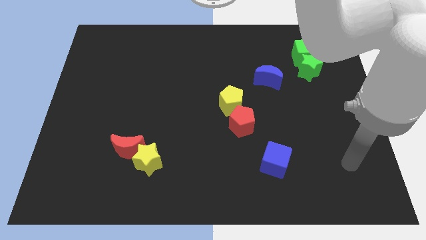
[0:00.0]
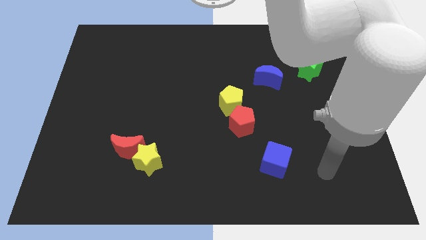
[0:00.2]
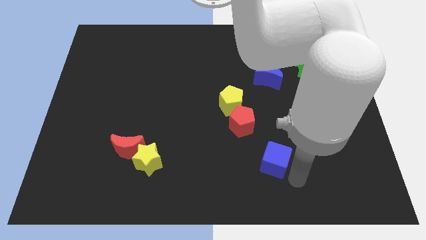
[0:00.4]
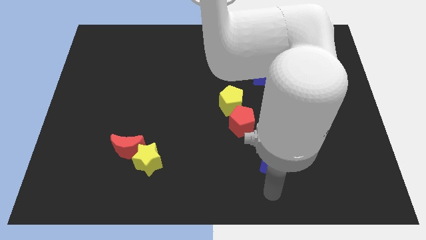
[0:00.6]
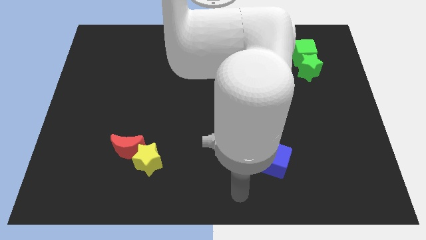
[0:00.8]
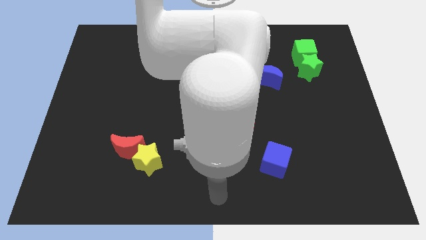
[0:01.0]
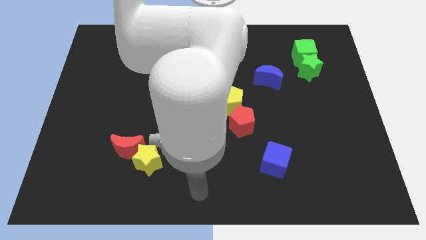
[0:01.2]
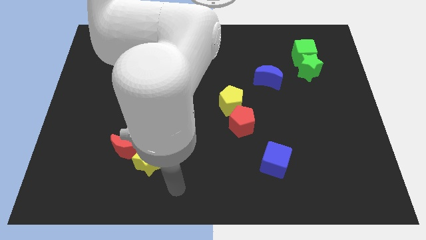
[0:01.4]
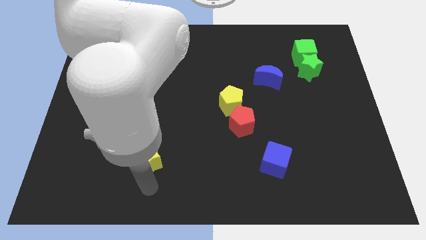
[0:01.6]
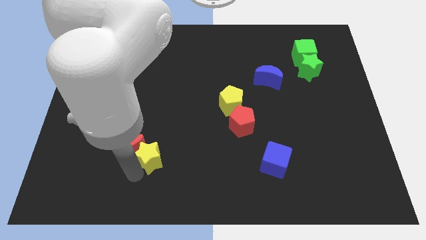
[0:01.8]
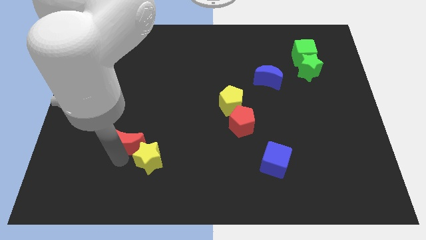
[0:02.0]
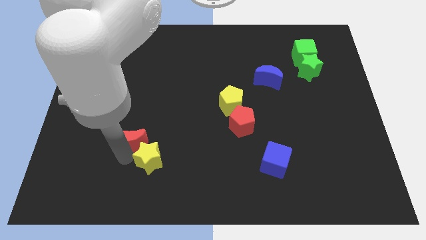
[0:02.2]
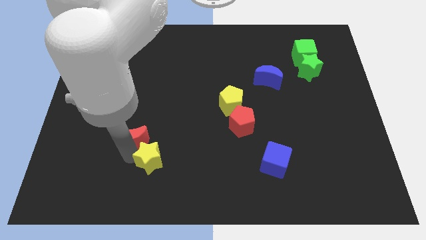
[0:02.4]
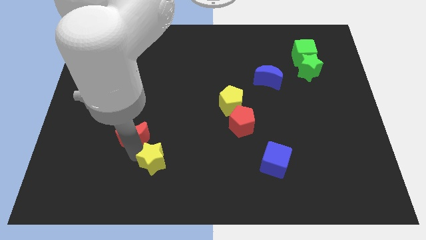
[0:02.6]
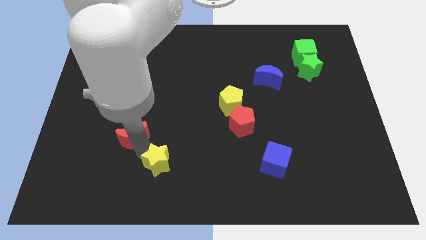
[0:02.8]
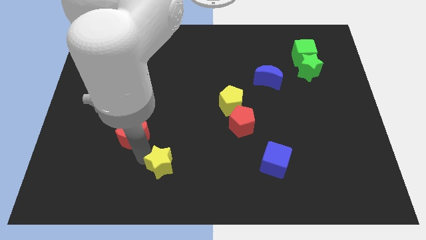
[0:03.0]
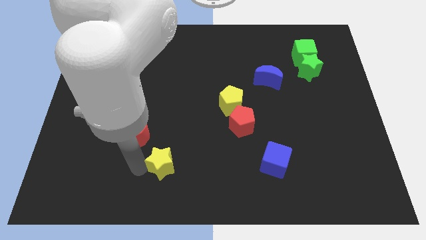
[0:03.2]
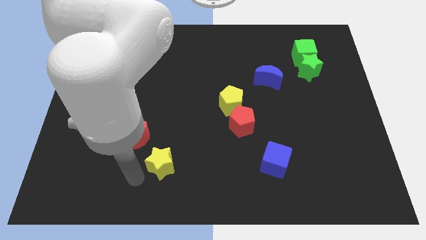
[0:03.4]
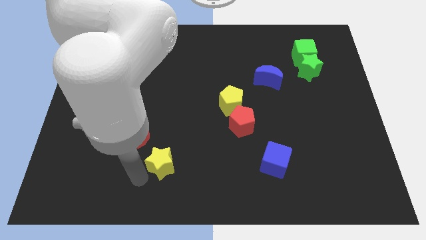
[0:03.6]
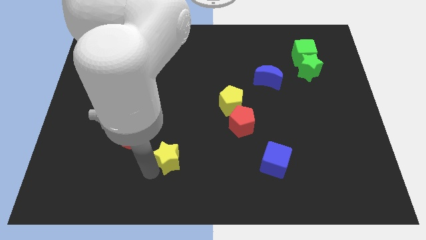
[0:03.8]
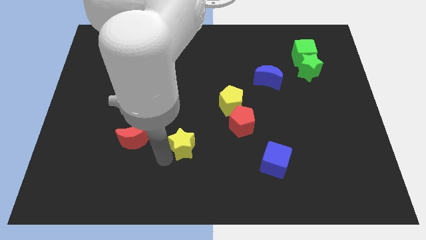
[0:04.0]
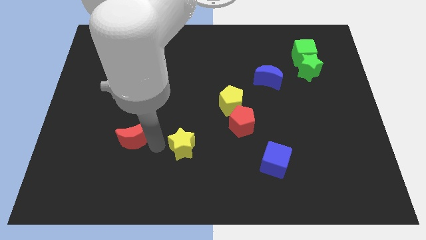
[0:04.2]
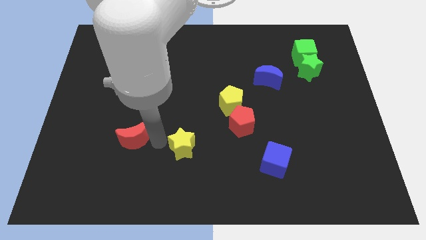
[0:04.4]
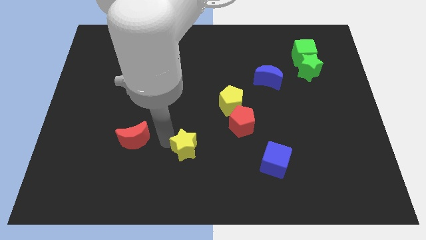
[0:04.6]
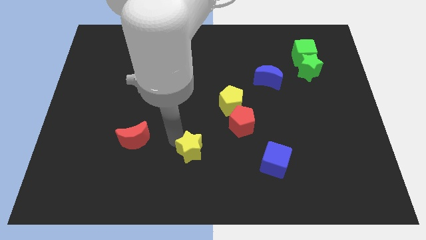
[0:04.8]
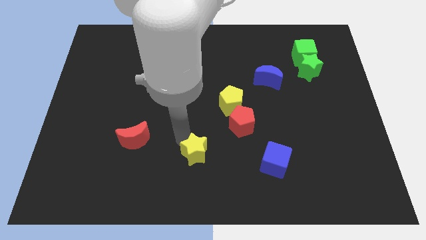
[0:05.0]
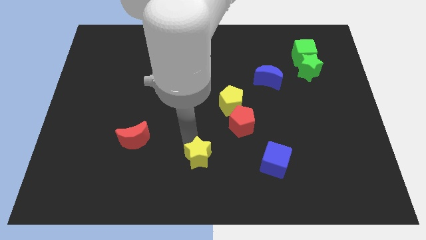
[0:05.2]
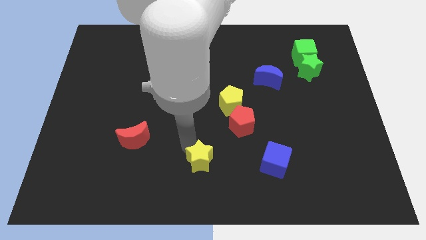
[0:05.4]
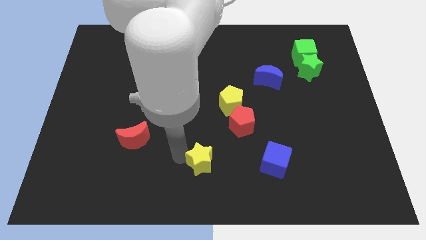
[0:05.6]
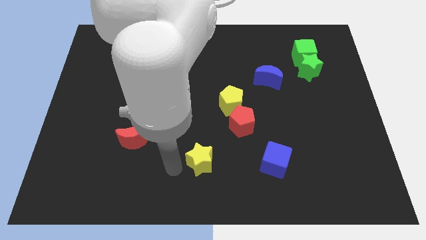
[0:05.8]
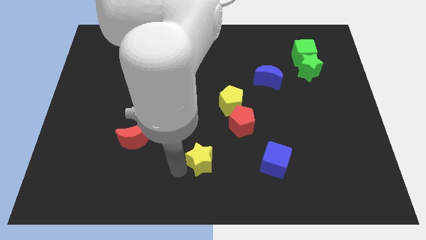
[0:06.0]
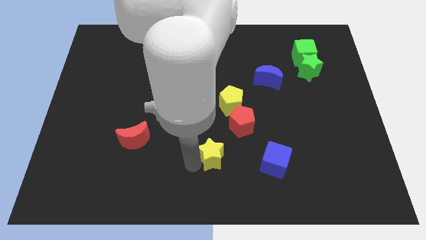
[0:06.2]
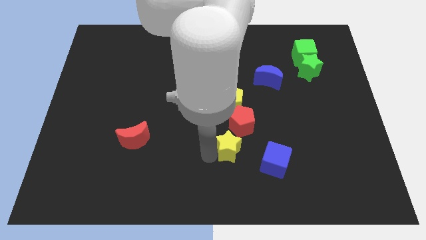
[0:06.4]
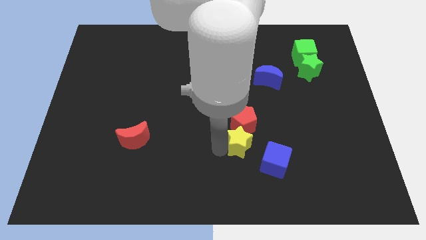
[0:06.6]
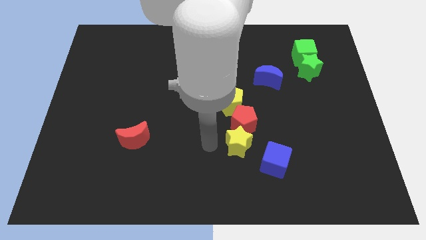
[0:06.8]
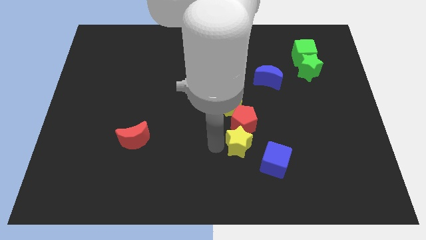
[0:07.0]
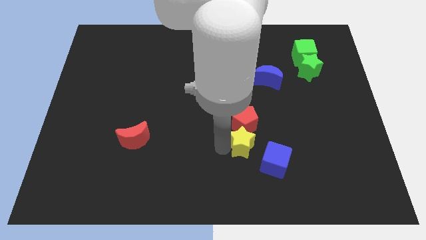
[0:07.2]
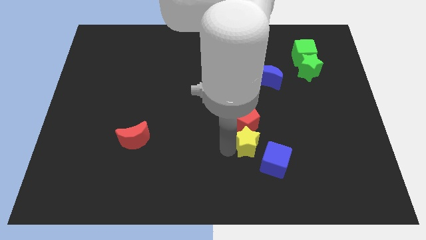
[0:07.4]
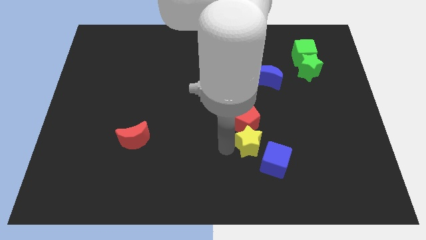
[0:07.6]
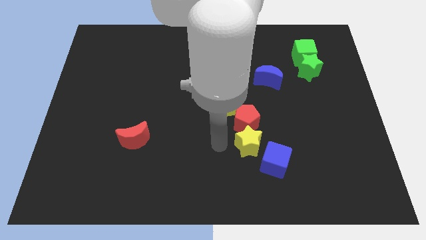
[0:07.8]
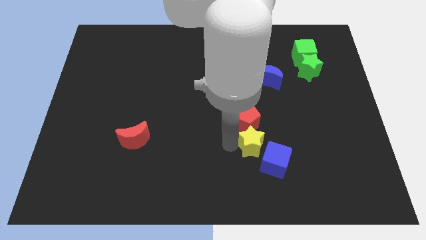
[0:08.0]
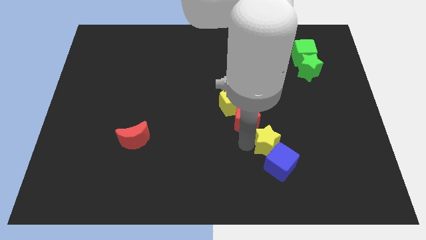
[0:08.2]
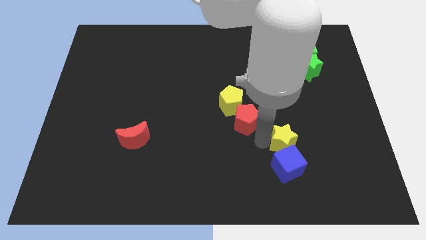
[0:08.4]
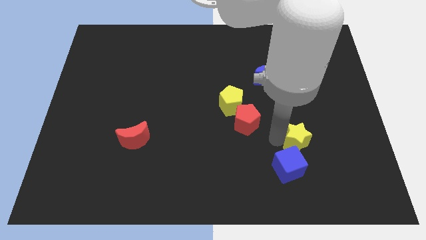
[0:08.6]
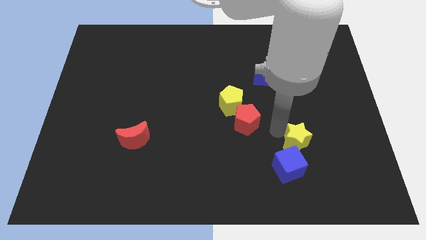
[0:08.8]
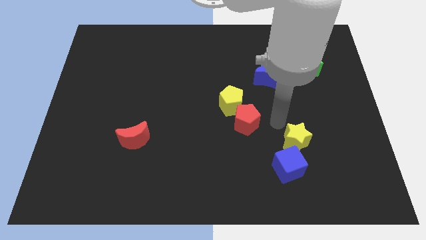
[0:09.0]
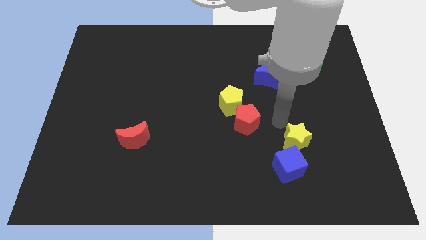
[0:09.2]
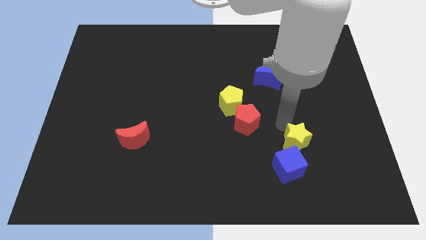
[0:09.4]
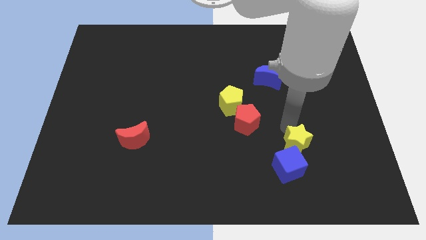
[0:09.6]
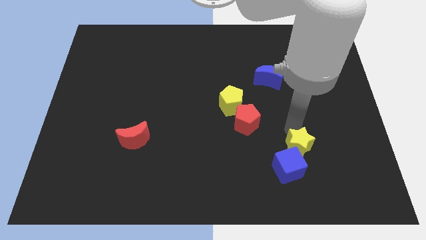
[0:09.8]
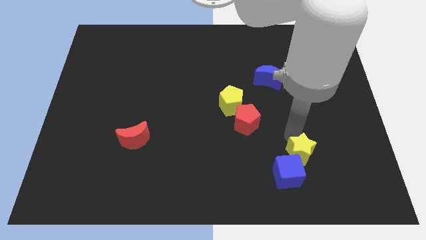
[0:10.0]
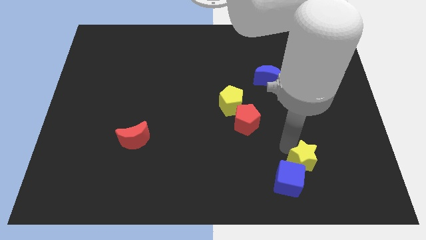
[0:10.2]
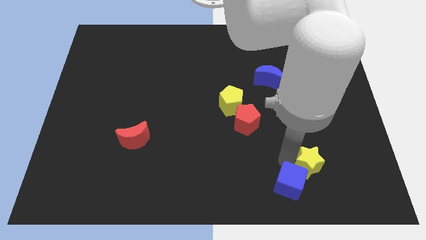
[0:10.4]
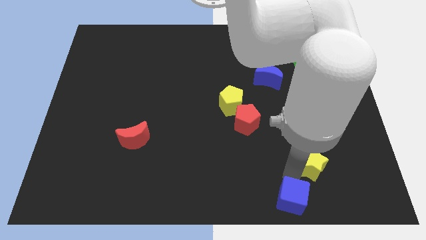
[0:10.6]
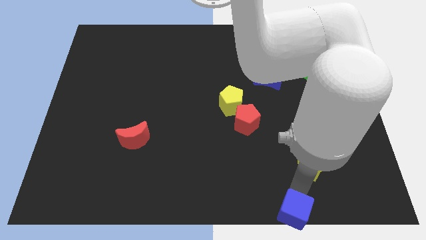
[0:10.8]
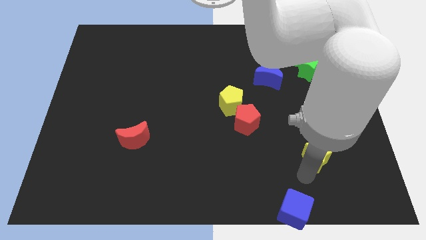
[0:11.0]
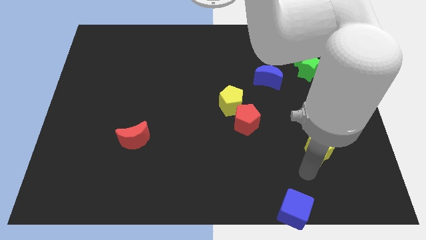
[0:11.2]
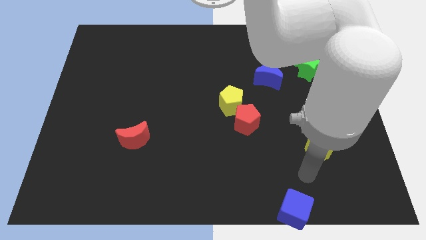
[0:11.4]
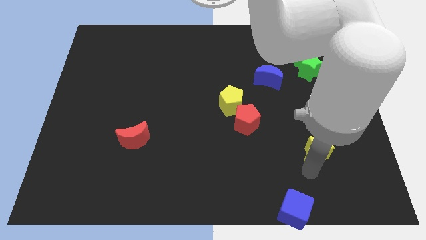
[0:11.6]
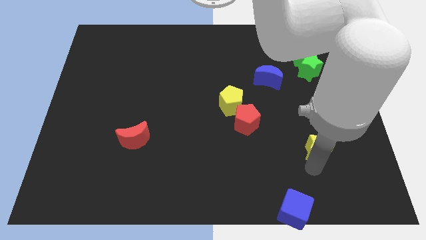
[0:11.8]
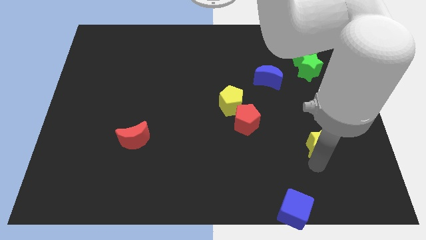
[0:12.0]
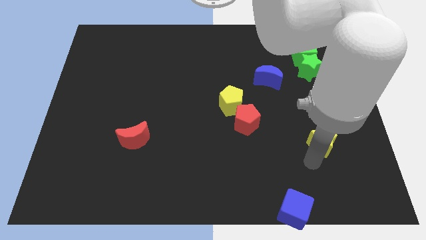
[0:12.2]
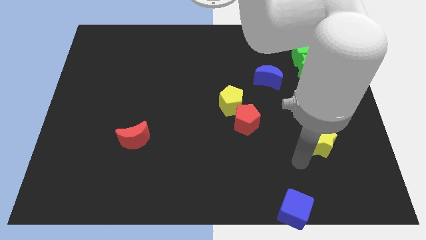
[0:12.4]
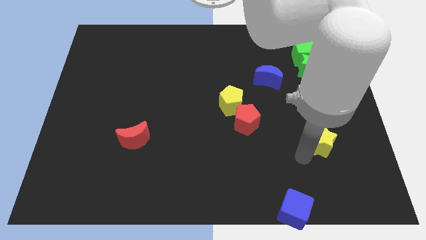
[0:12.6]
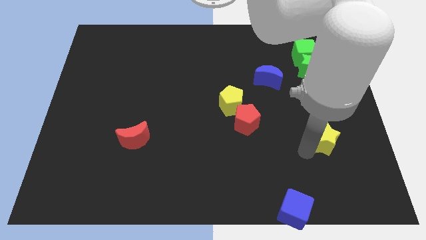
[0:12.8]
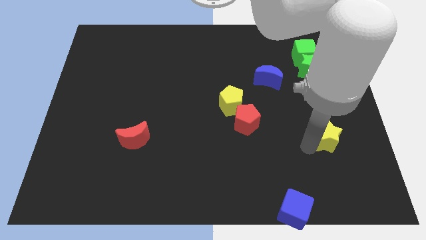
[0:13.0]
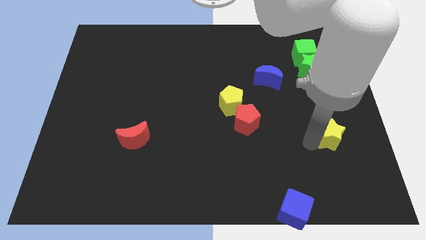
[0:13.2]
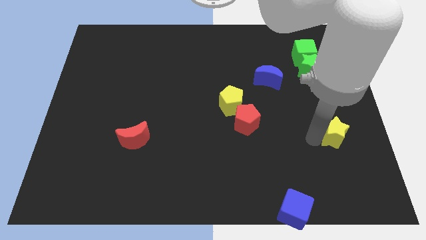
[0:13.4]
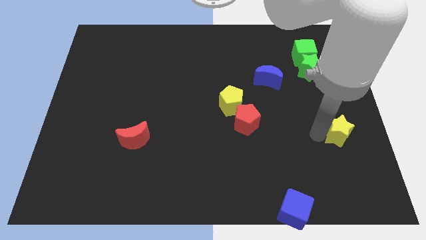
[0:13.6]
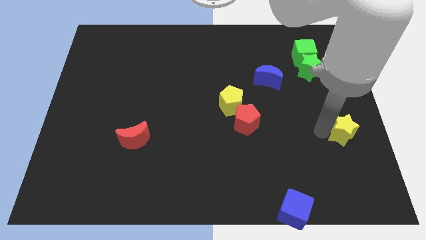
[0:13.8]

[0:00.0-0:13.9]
put the yellow star to the right side of the board
